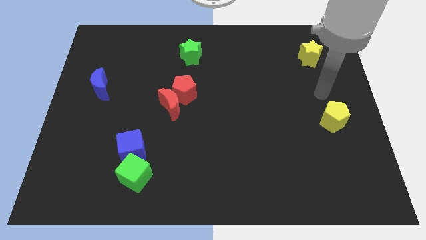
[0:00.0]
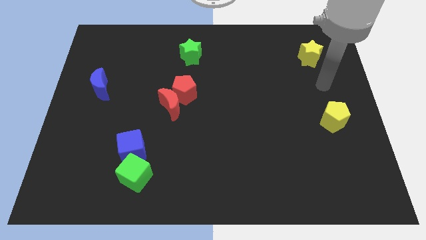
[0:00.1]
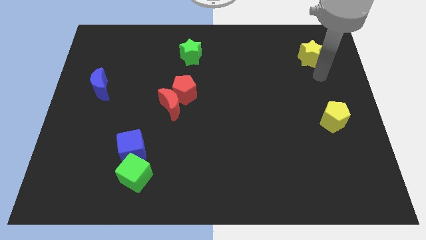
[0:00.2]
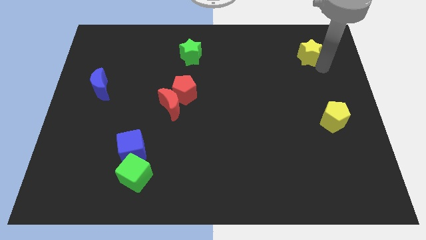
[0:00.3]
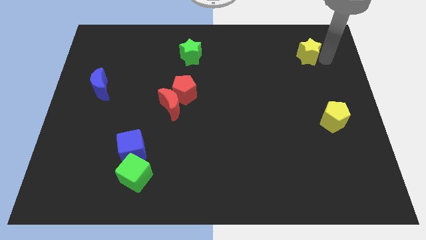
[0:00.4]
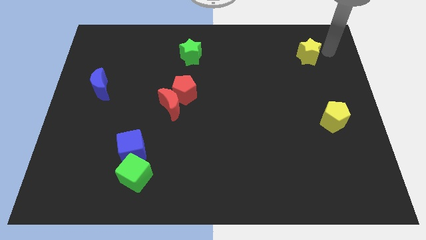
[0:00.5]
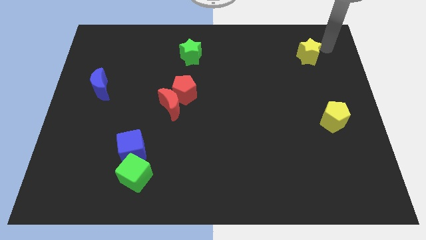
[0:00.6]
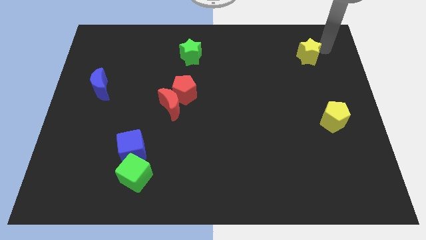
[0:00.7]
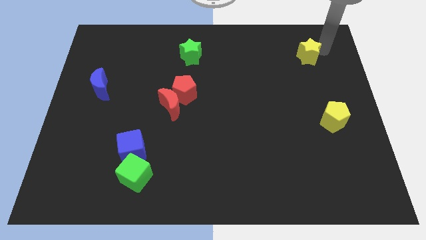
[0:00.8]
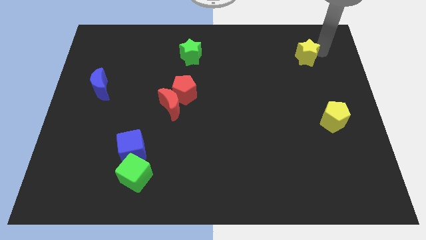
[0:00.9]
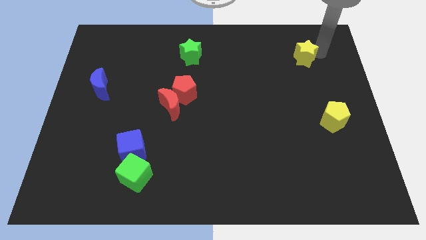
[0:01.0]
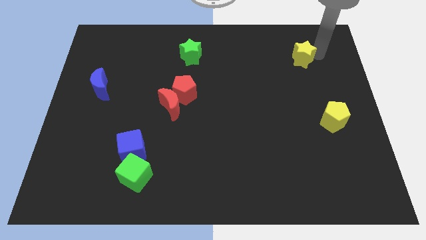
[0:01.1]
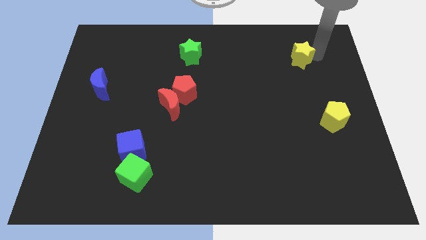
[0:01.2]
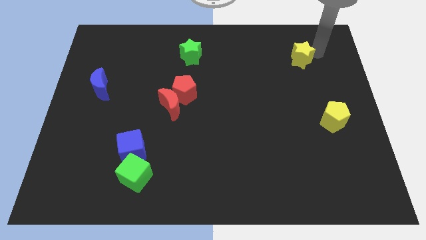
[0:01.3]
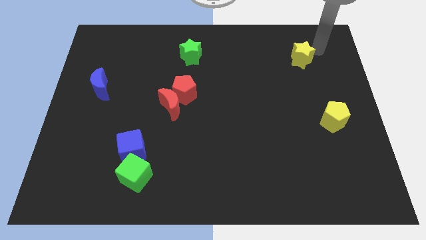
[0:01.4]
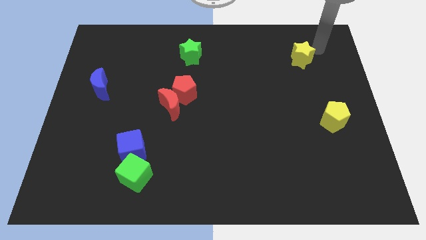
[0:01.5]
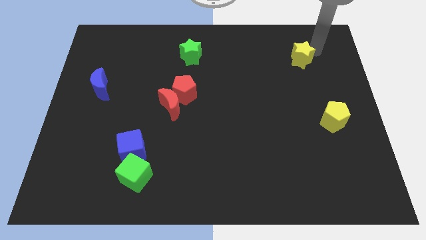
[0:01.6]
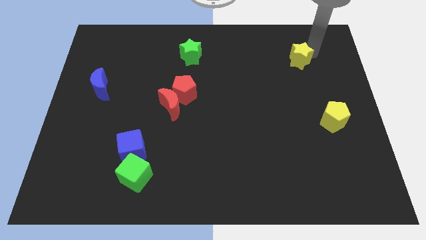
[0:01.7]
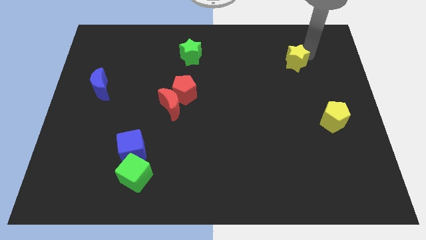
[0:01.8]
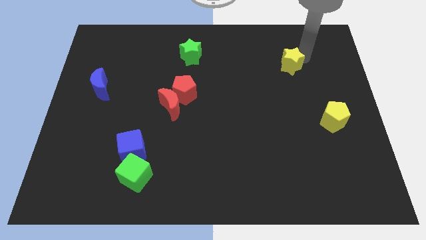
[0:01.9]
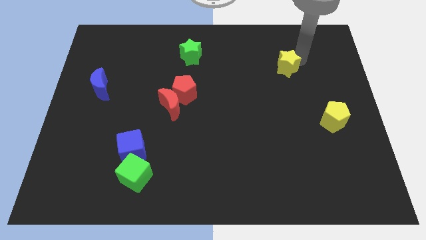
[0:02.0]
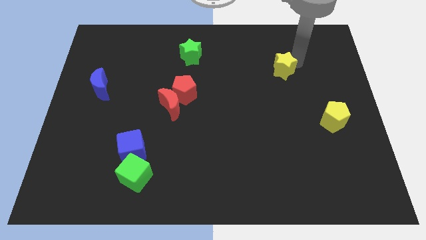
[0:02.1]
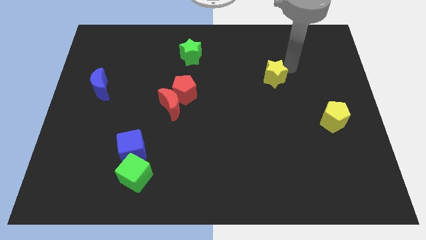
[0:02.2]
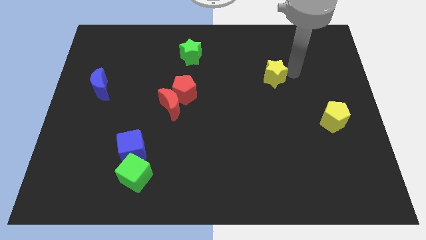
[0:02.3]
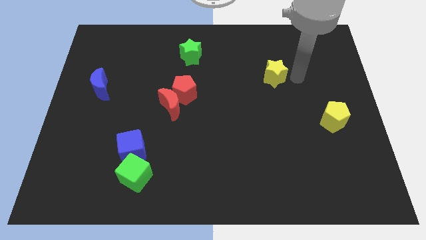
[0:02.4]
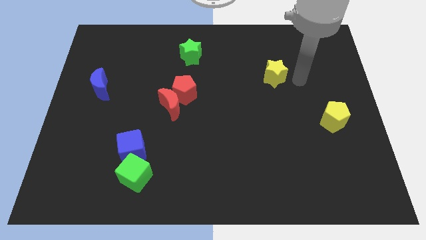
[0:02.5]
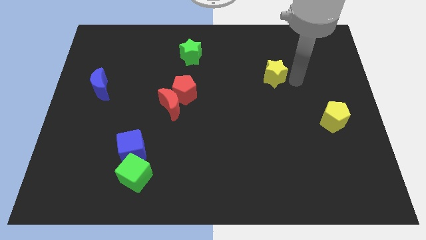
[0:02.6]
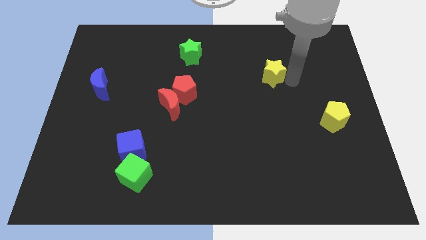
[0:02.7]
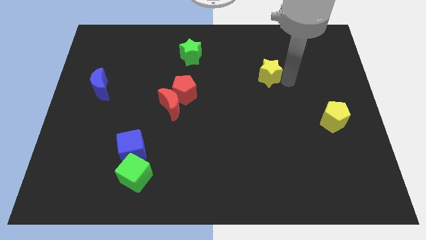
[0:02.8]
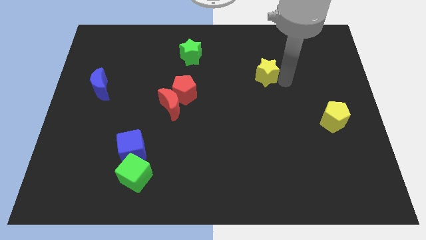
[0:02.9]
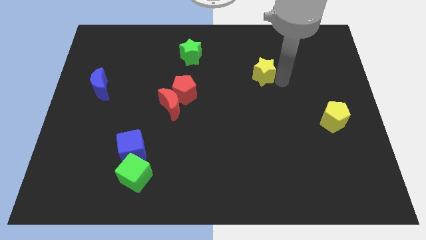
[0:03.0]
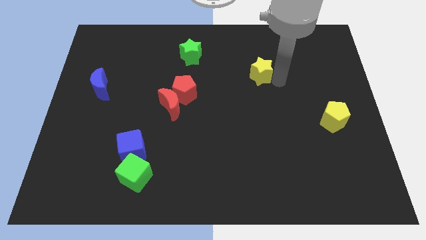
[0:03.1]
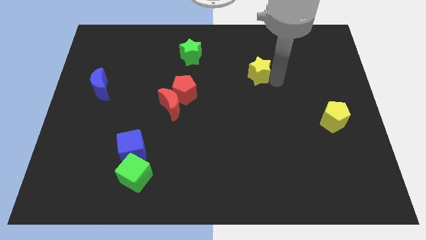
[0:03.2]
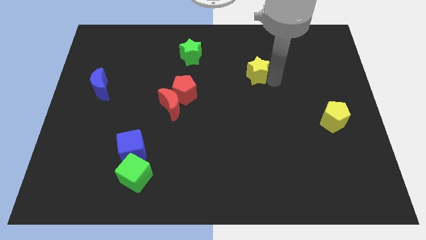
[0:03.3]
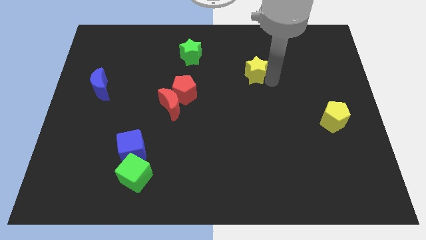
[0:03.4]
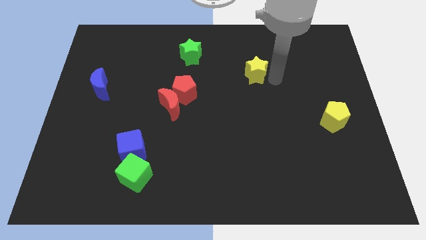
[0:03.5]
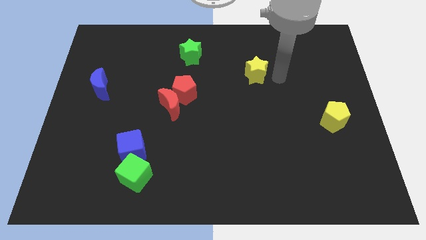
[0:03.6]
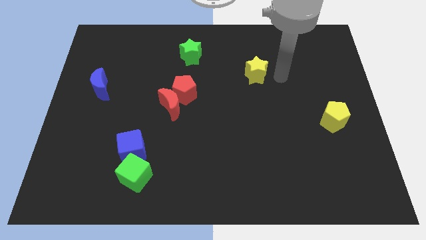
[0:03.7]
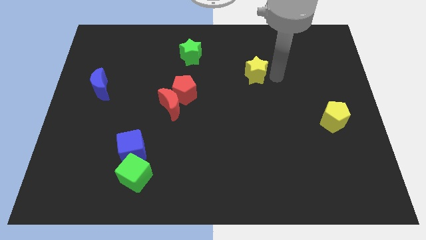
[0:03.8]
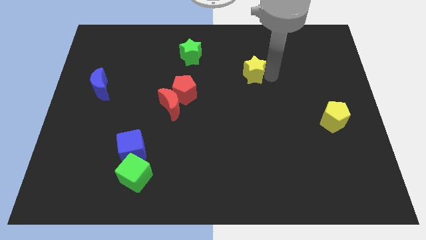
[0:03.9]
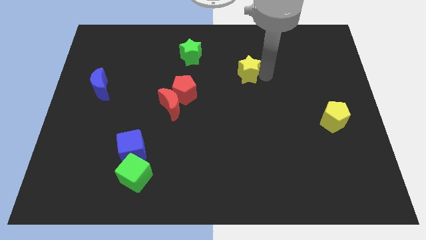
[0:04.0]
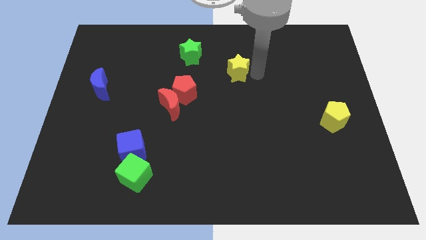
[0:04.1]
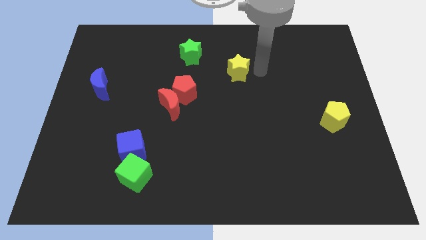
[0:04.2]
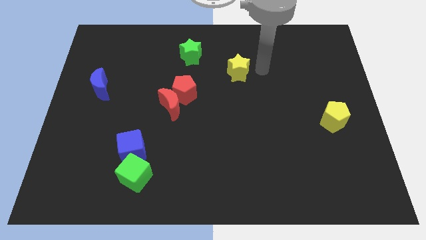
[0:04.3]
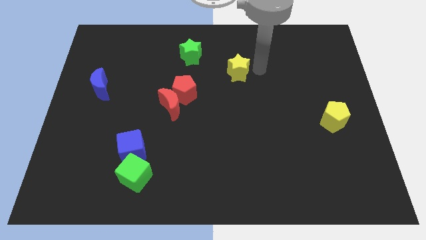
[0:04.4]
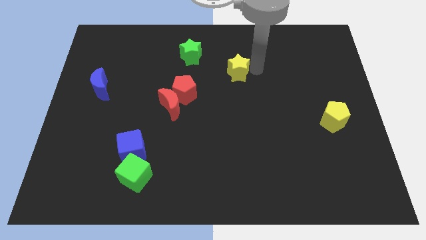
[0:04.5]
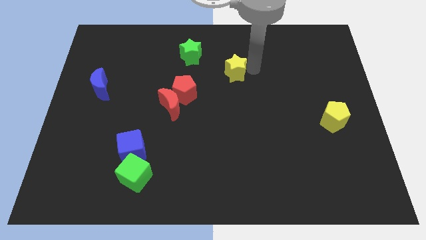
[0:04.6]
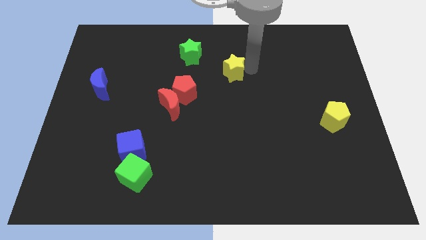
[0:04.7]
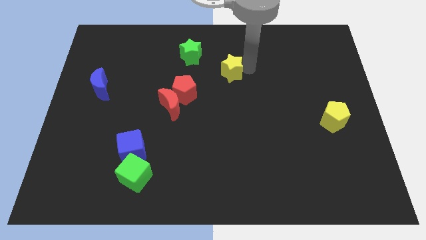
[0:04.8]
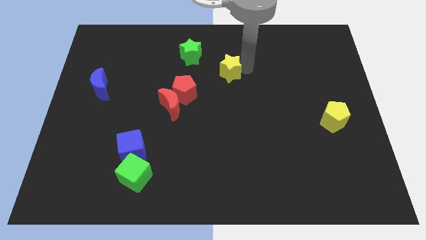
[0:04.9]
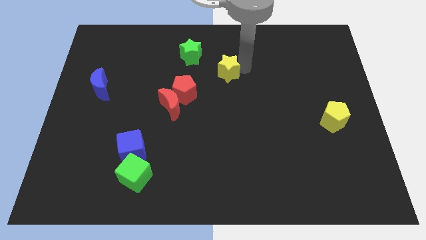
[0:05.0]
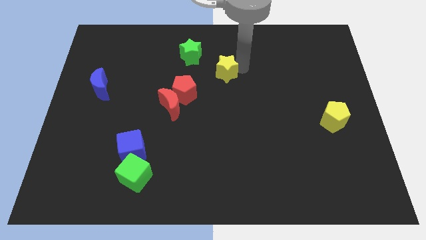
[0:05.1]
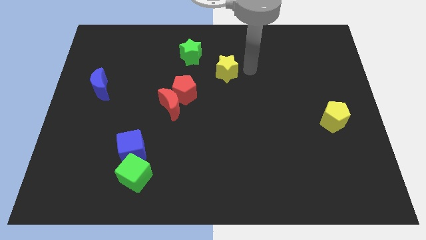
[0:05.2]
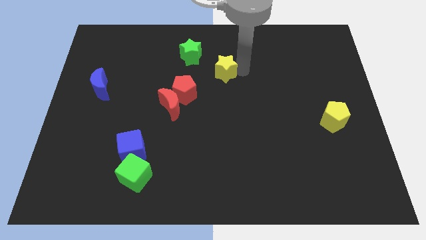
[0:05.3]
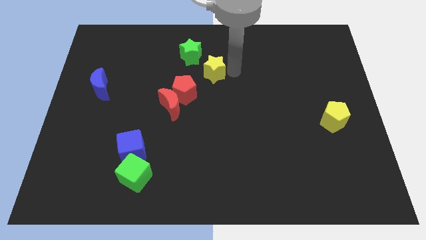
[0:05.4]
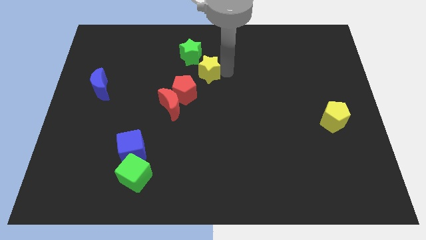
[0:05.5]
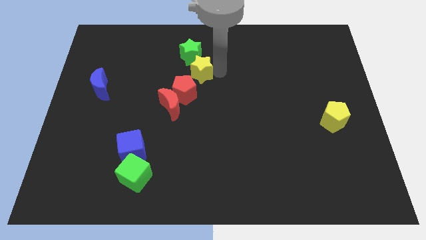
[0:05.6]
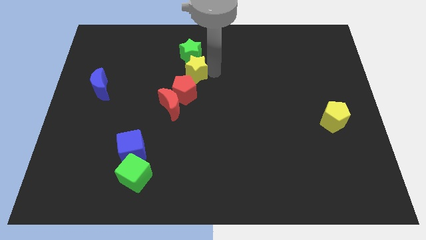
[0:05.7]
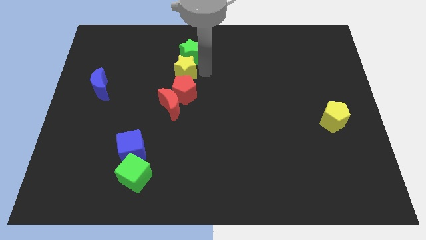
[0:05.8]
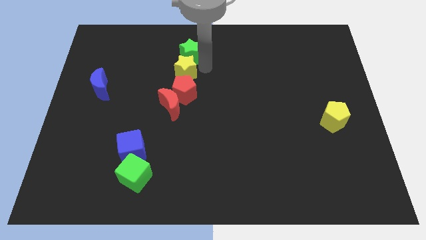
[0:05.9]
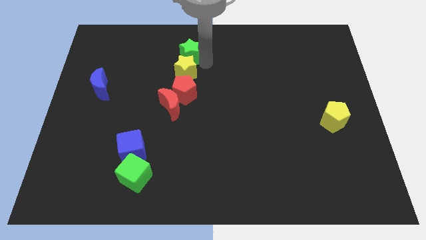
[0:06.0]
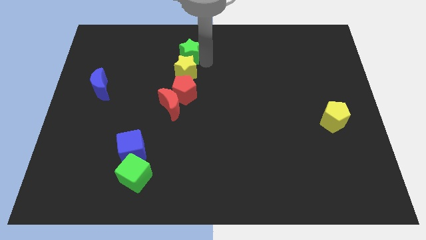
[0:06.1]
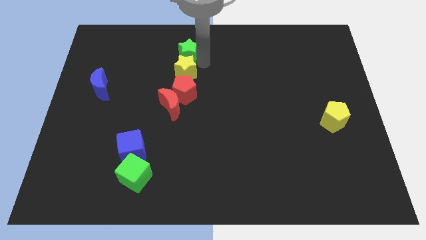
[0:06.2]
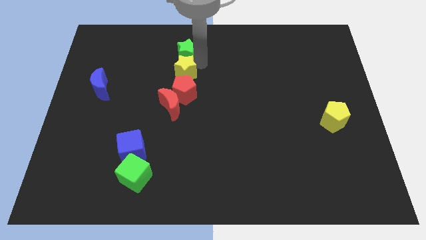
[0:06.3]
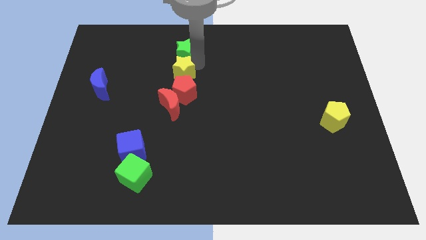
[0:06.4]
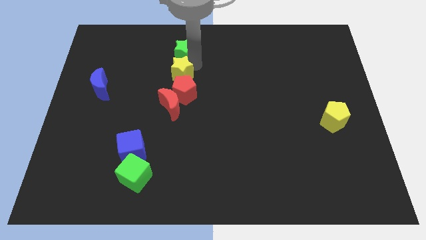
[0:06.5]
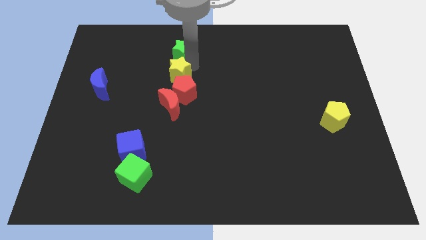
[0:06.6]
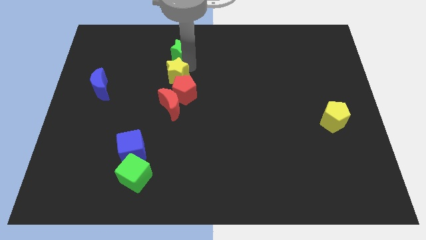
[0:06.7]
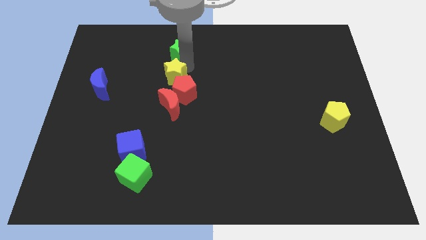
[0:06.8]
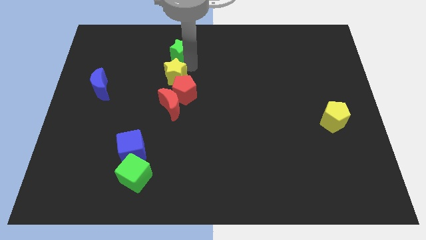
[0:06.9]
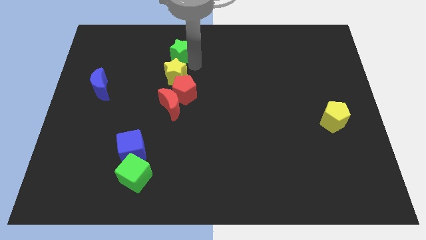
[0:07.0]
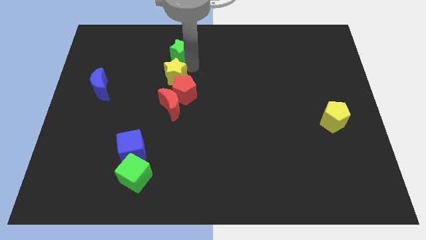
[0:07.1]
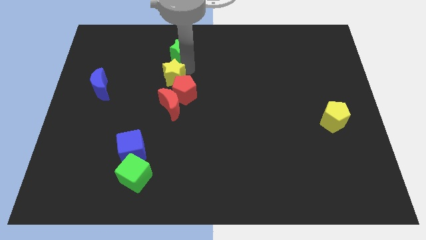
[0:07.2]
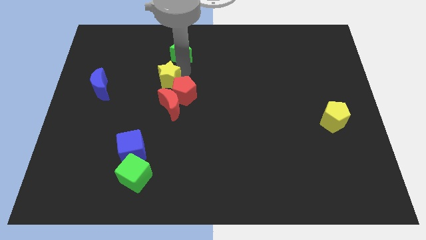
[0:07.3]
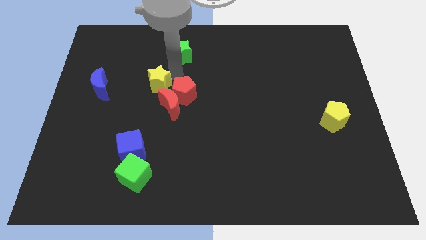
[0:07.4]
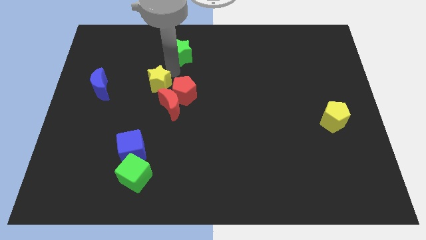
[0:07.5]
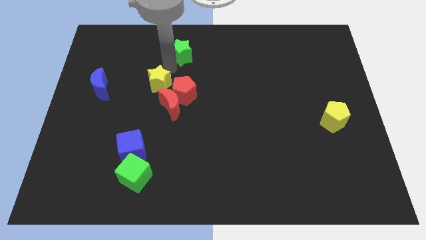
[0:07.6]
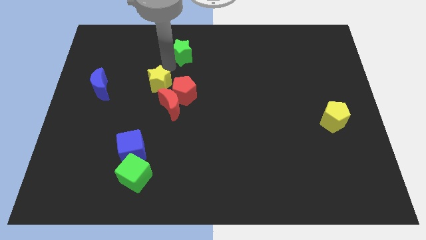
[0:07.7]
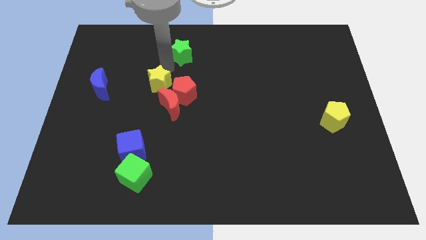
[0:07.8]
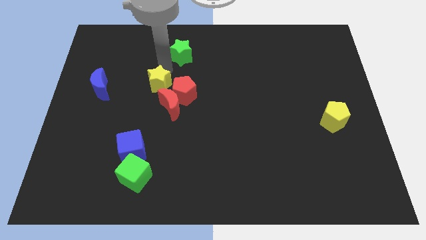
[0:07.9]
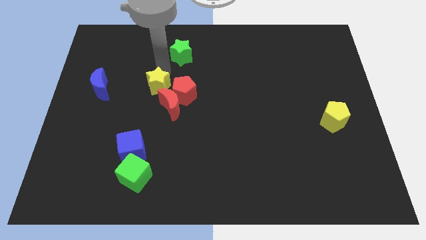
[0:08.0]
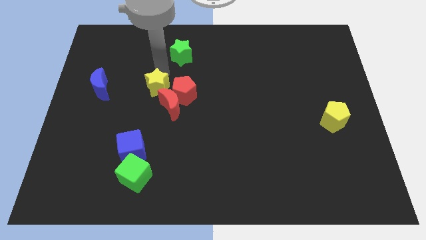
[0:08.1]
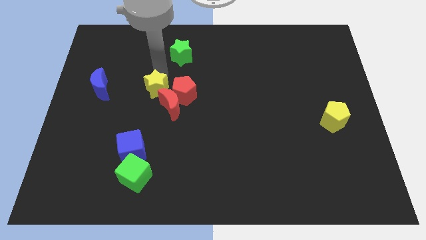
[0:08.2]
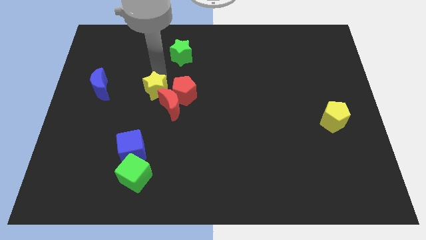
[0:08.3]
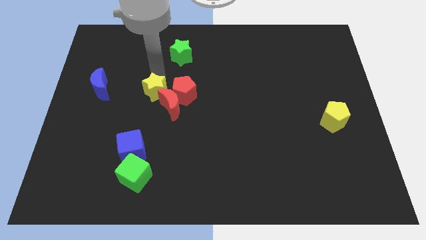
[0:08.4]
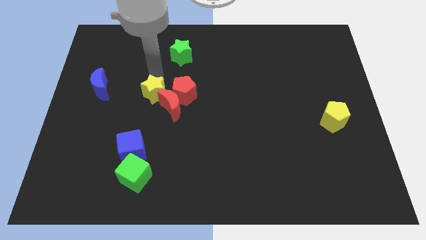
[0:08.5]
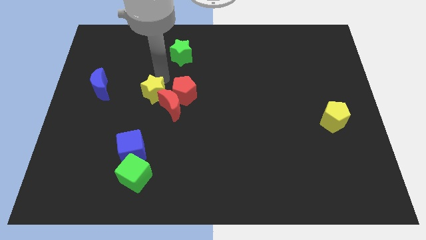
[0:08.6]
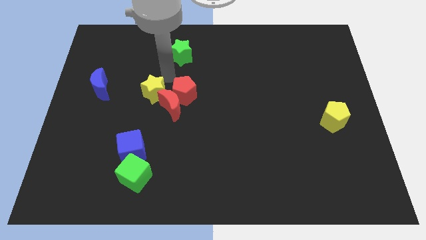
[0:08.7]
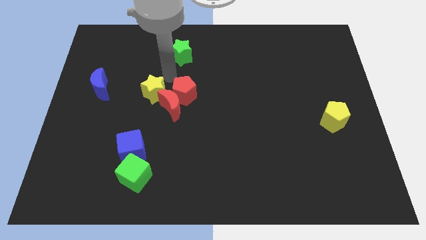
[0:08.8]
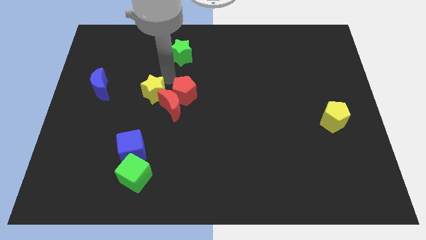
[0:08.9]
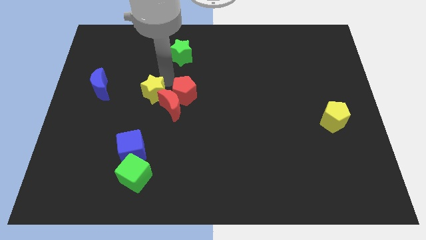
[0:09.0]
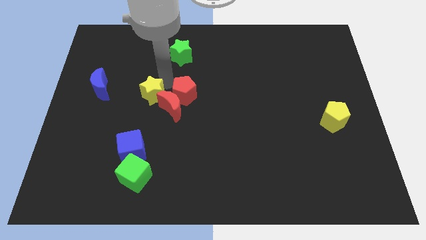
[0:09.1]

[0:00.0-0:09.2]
push the yellow star above the blue cube
